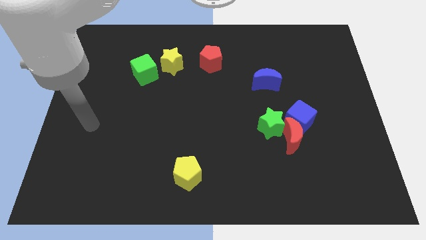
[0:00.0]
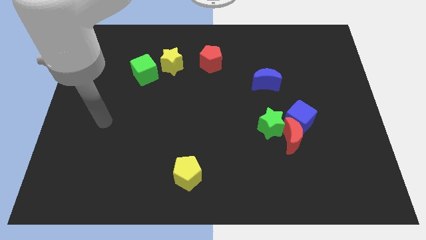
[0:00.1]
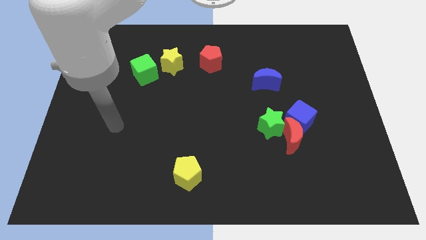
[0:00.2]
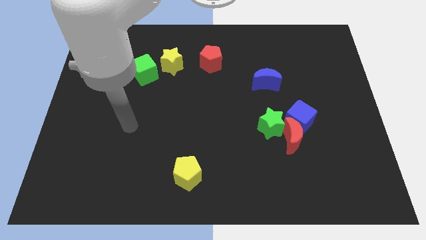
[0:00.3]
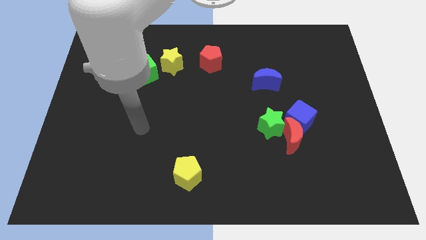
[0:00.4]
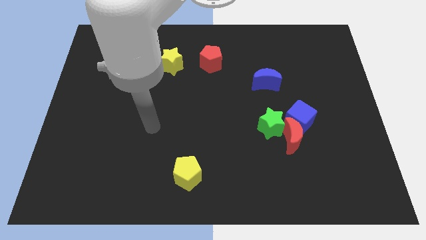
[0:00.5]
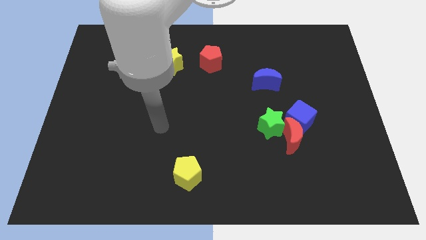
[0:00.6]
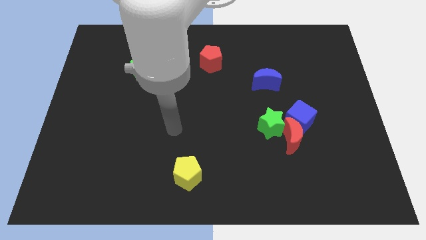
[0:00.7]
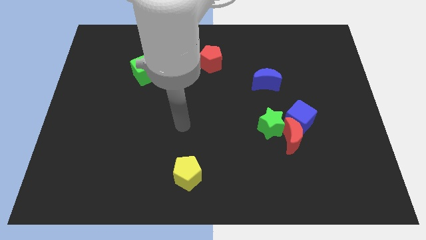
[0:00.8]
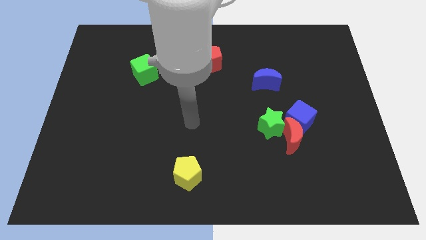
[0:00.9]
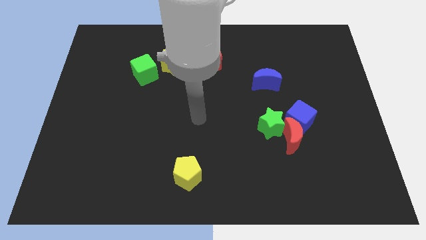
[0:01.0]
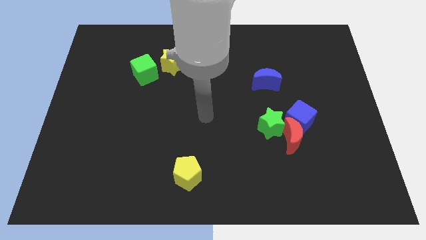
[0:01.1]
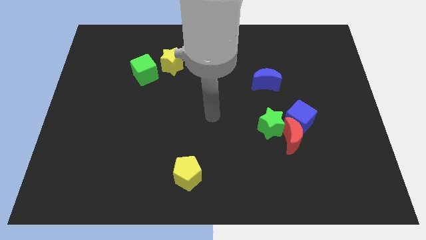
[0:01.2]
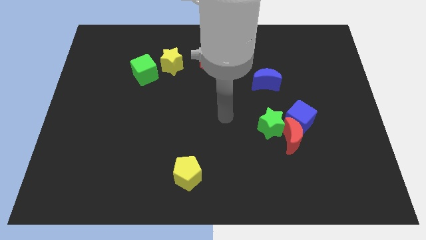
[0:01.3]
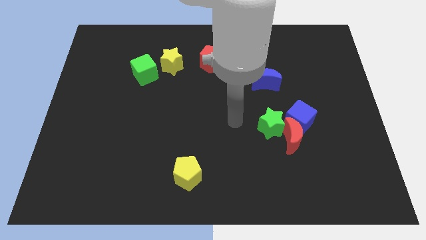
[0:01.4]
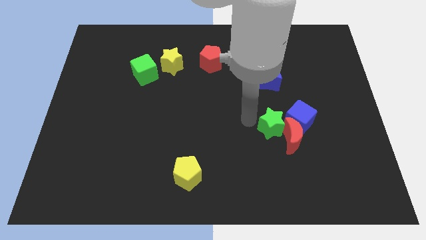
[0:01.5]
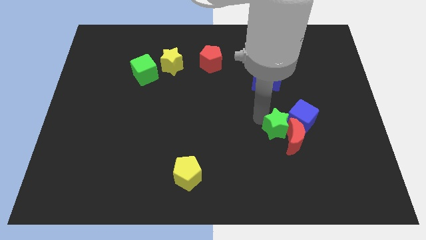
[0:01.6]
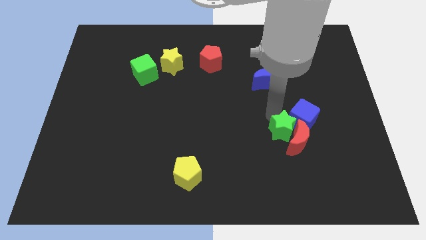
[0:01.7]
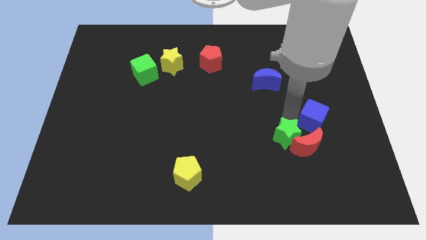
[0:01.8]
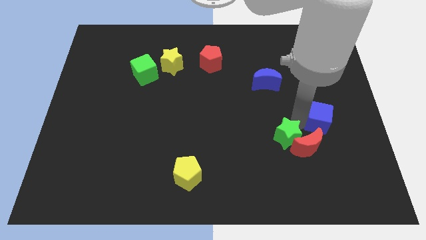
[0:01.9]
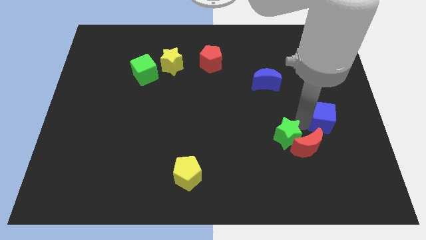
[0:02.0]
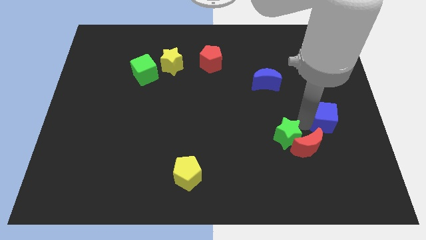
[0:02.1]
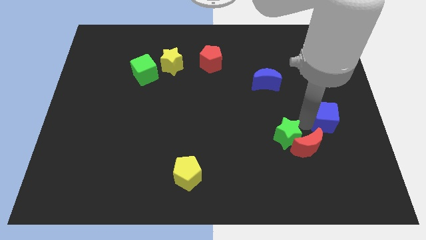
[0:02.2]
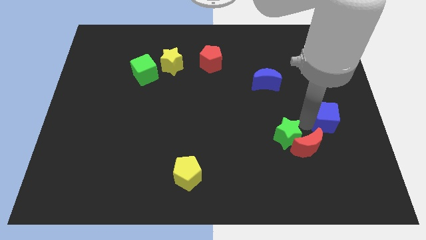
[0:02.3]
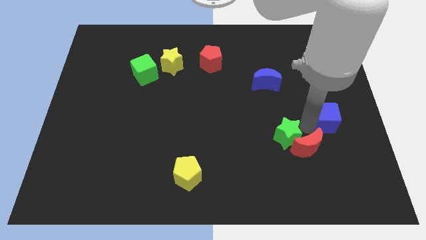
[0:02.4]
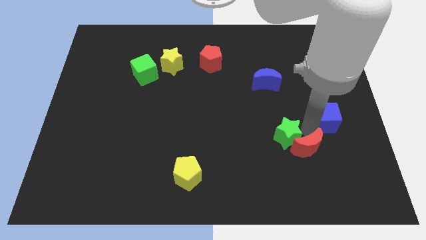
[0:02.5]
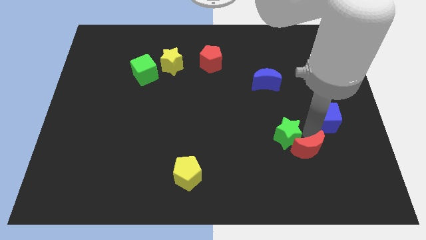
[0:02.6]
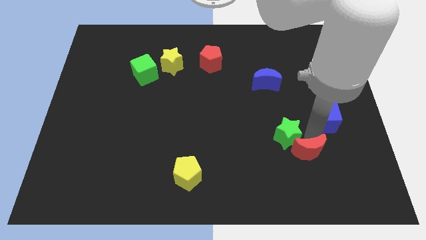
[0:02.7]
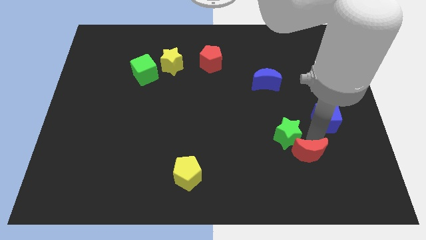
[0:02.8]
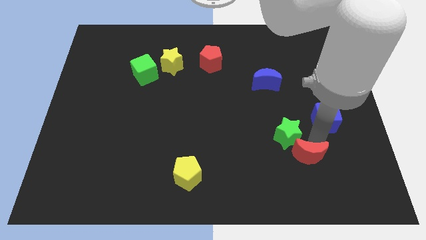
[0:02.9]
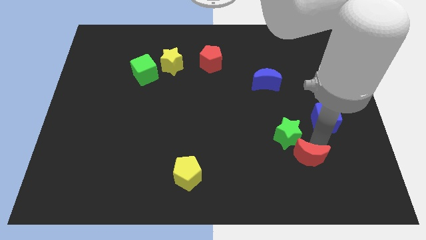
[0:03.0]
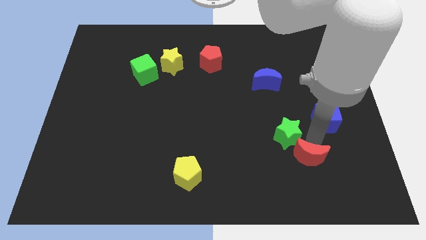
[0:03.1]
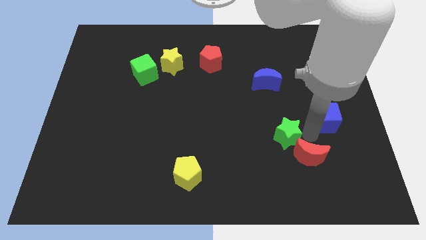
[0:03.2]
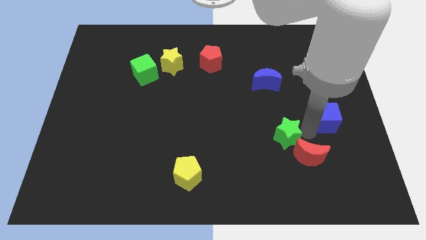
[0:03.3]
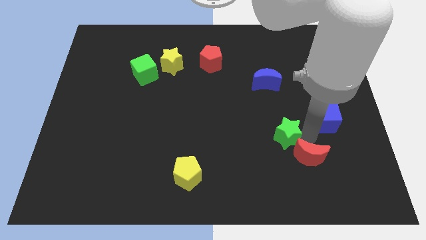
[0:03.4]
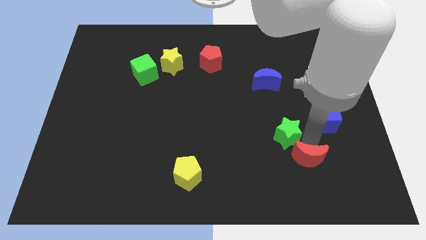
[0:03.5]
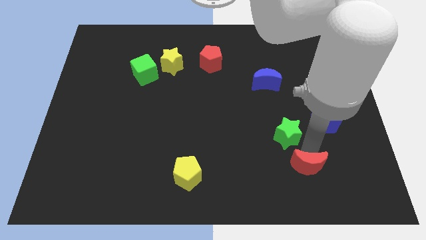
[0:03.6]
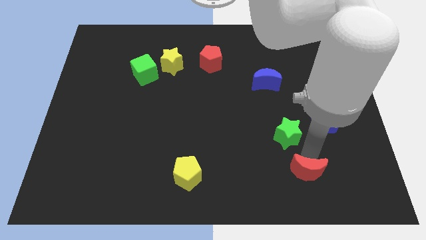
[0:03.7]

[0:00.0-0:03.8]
move the red moon away from the blue cube and green star

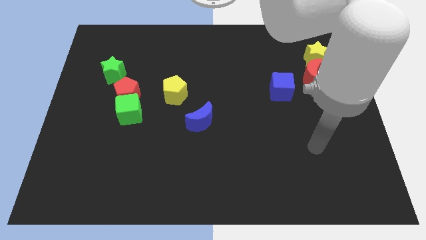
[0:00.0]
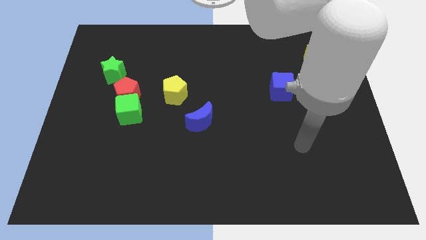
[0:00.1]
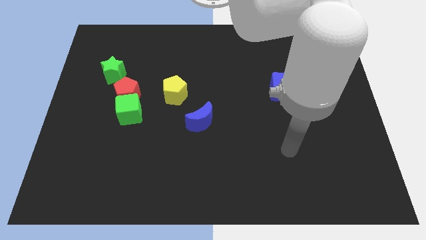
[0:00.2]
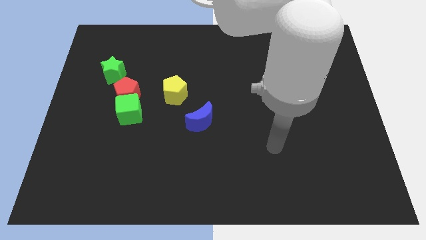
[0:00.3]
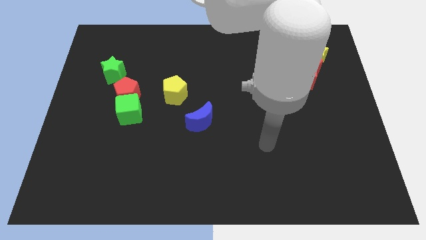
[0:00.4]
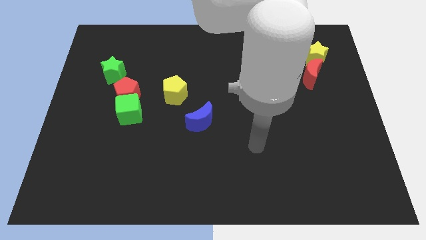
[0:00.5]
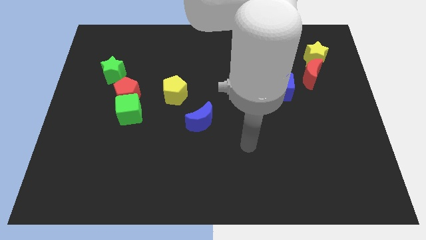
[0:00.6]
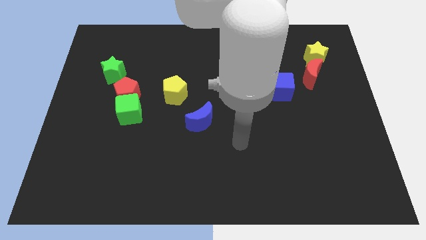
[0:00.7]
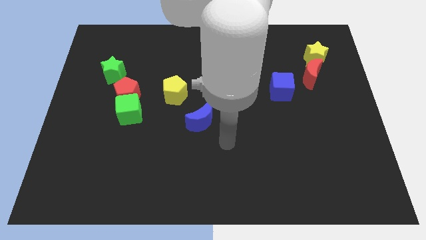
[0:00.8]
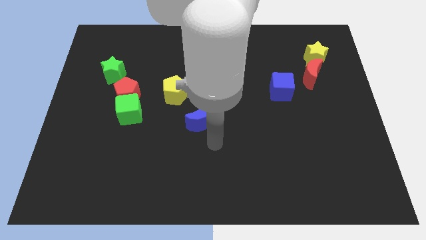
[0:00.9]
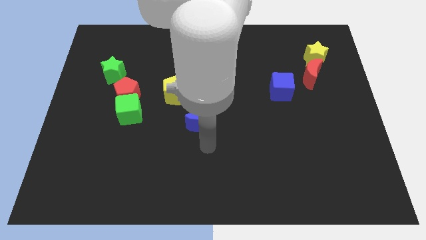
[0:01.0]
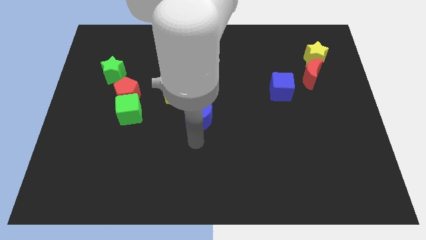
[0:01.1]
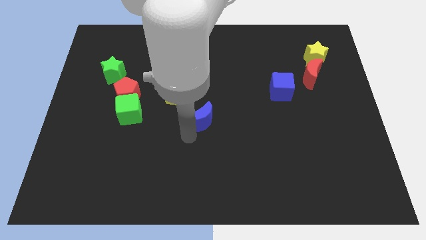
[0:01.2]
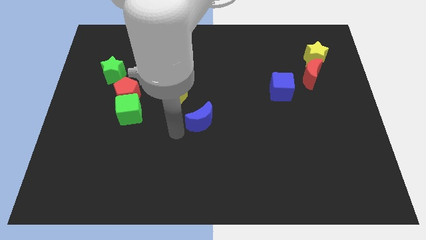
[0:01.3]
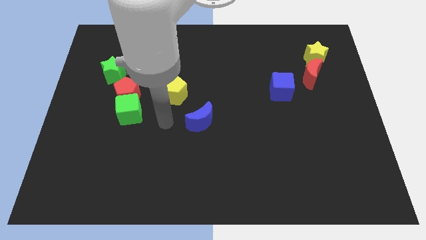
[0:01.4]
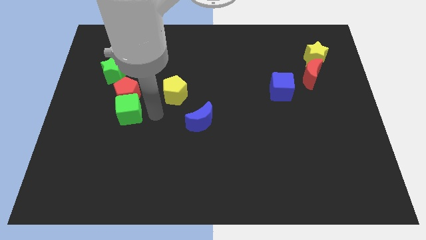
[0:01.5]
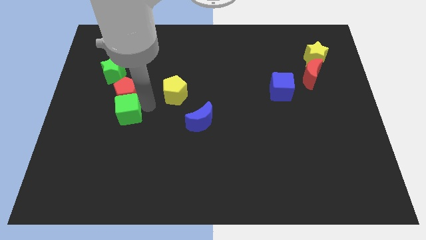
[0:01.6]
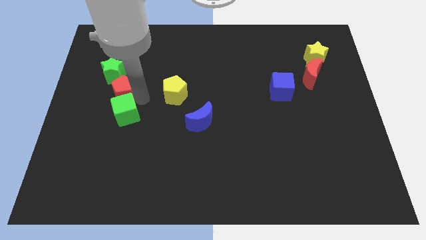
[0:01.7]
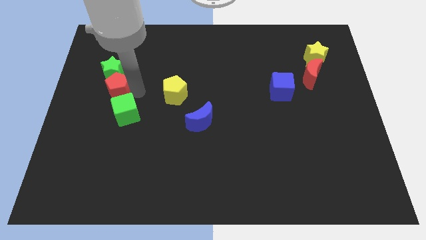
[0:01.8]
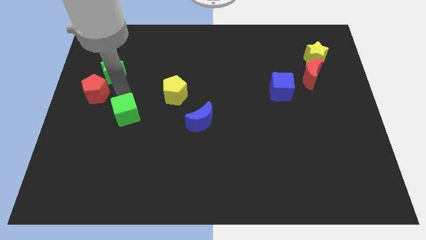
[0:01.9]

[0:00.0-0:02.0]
move the green cube away from the red pentagon

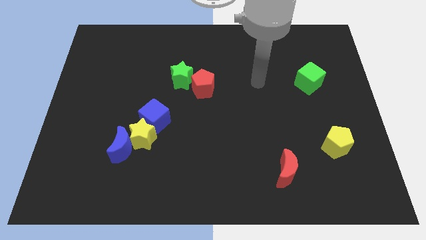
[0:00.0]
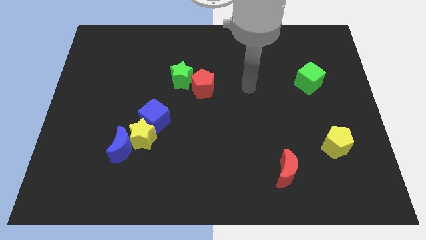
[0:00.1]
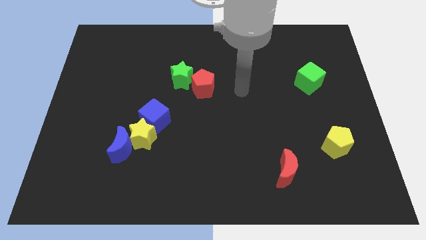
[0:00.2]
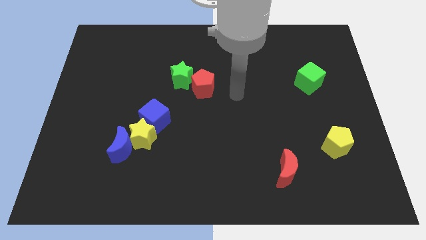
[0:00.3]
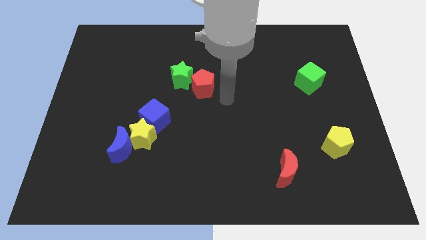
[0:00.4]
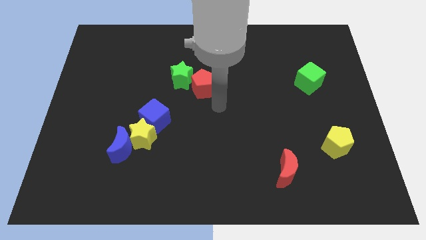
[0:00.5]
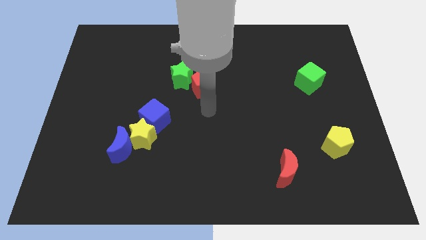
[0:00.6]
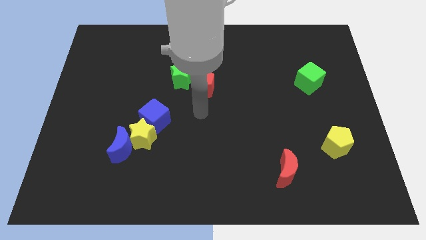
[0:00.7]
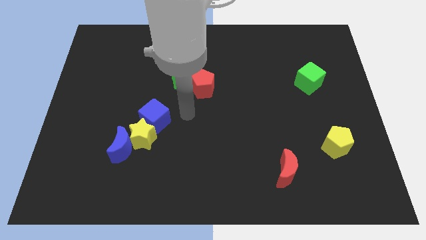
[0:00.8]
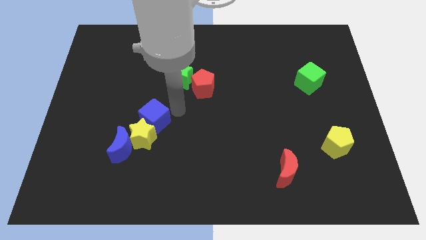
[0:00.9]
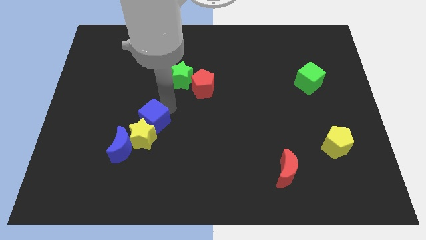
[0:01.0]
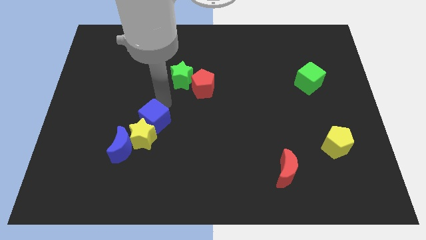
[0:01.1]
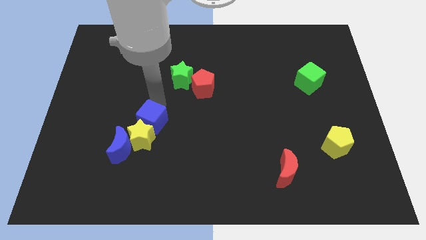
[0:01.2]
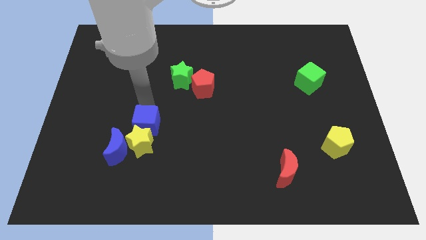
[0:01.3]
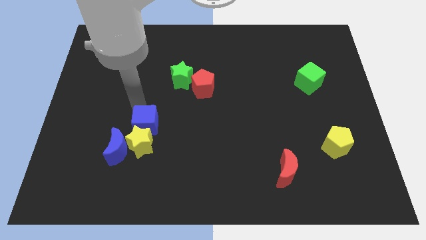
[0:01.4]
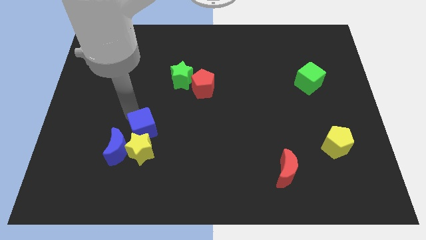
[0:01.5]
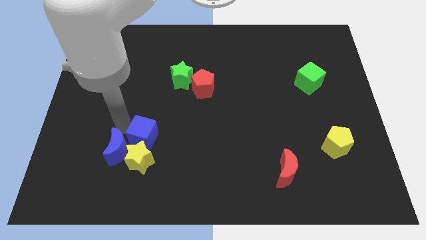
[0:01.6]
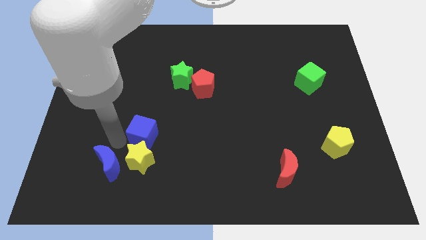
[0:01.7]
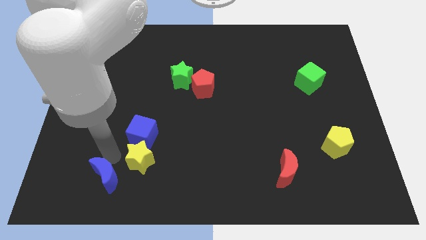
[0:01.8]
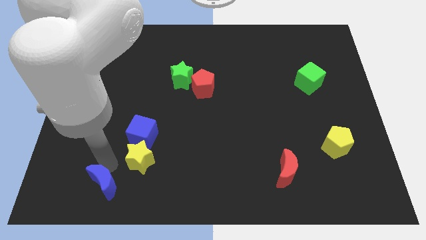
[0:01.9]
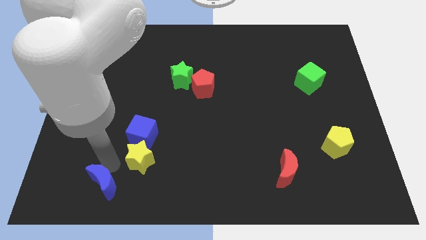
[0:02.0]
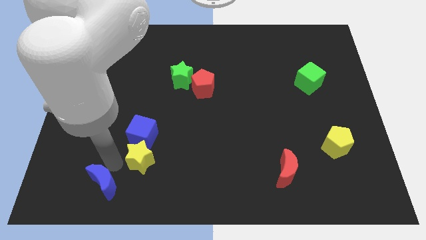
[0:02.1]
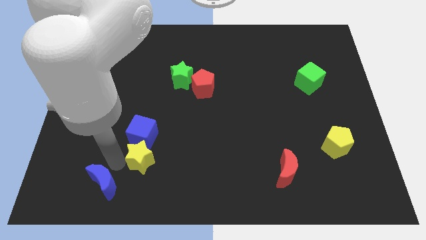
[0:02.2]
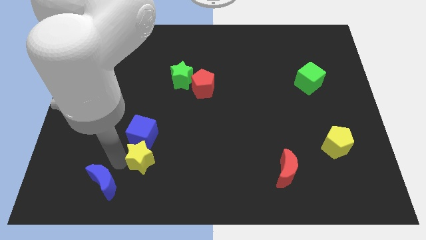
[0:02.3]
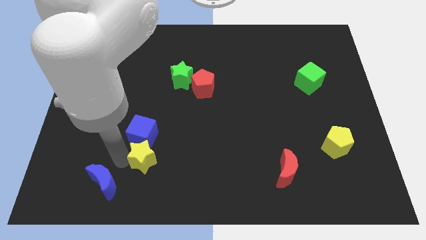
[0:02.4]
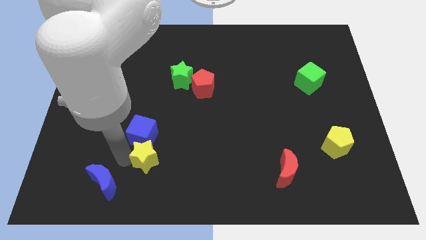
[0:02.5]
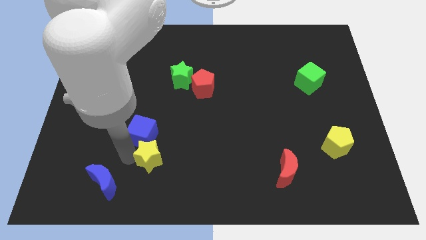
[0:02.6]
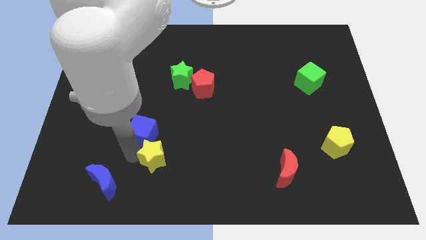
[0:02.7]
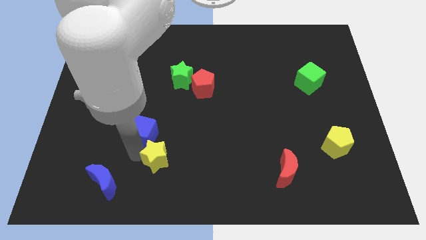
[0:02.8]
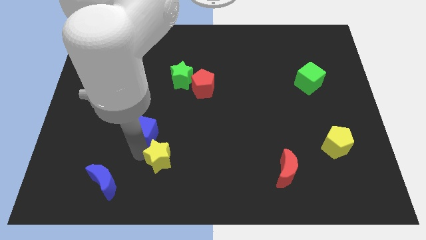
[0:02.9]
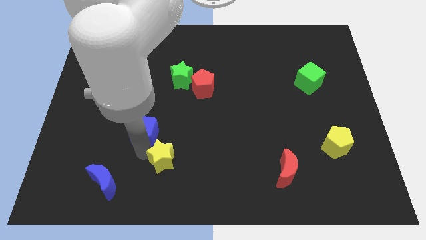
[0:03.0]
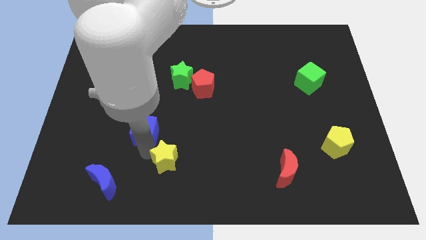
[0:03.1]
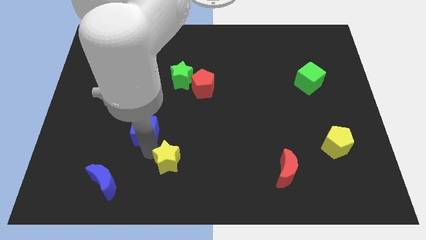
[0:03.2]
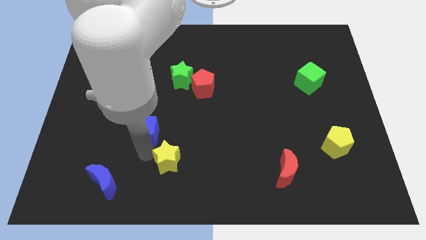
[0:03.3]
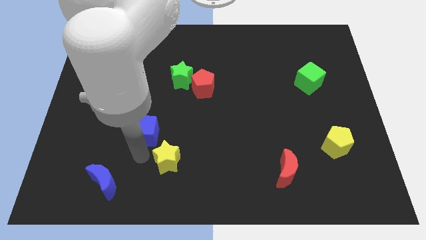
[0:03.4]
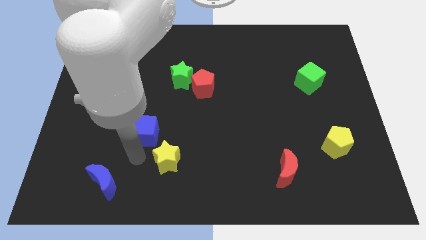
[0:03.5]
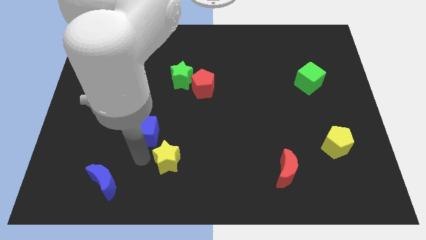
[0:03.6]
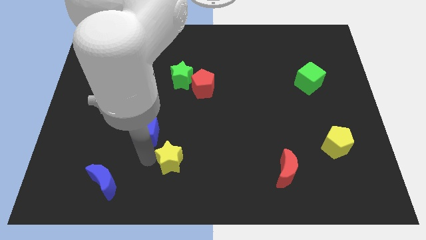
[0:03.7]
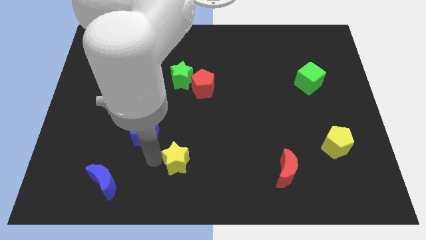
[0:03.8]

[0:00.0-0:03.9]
move the yellow star away from the blue moon and blue cube
